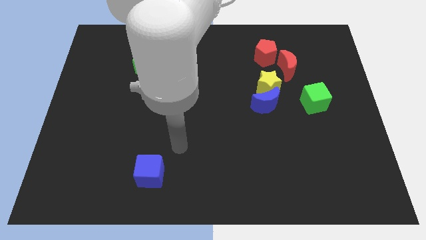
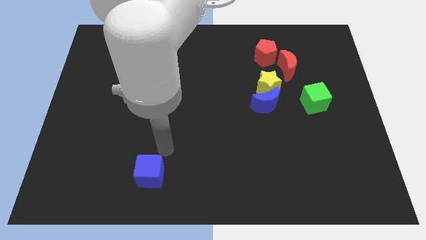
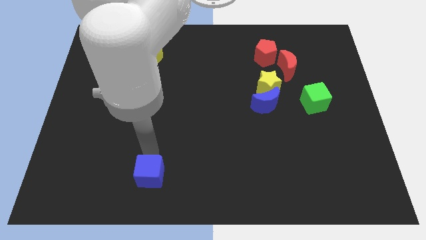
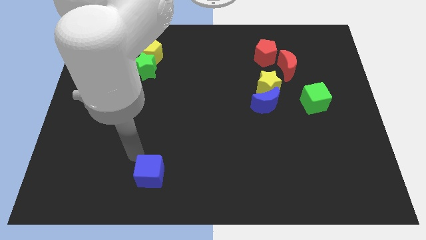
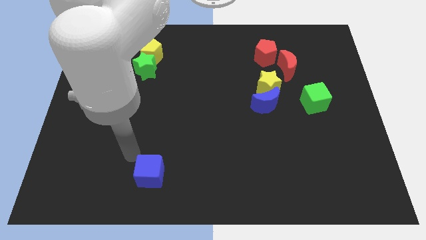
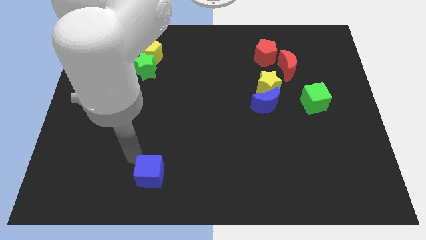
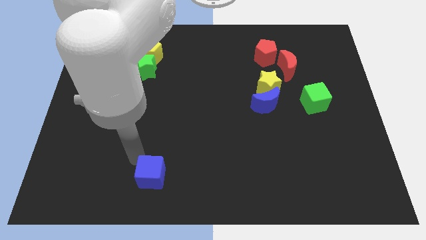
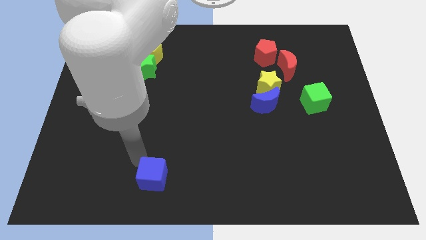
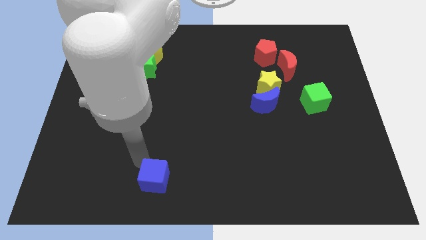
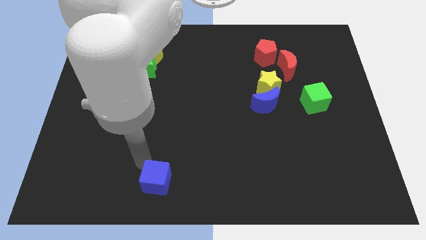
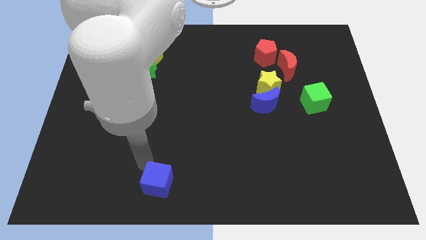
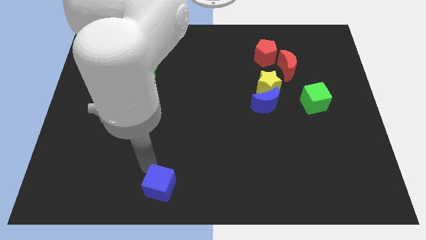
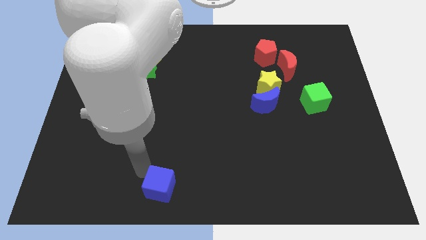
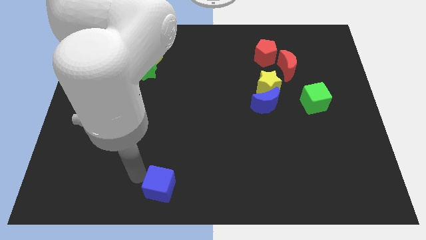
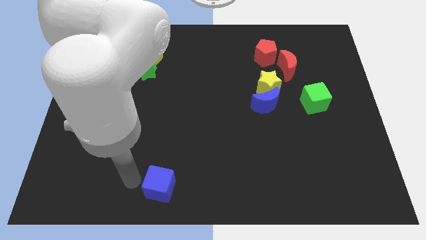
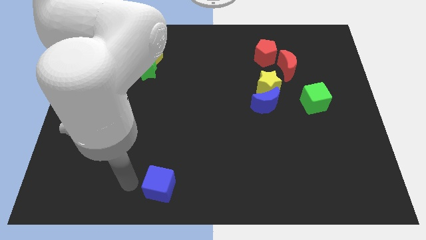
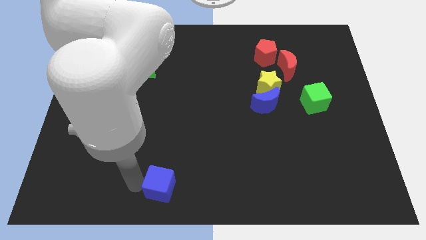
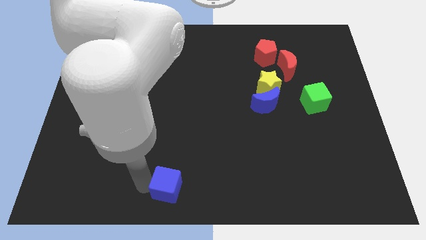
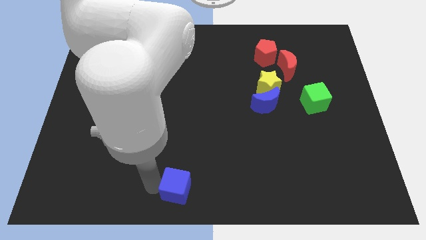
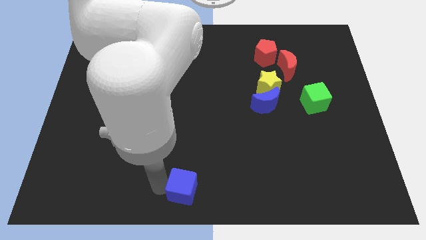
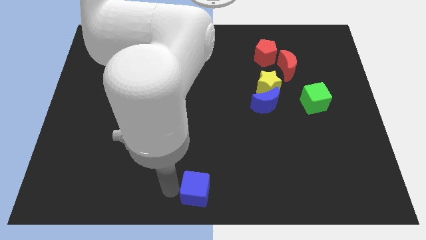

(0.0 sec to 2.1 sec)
slightly push the blue cube to the right

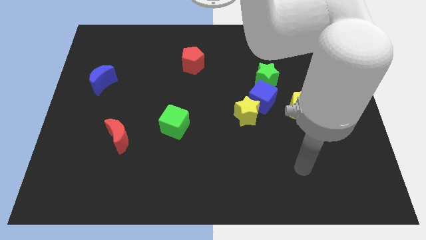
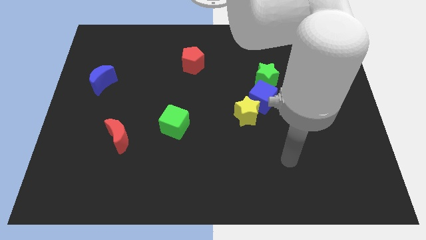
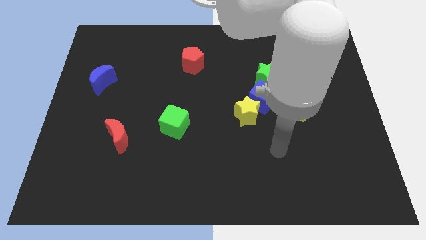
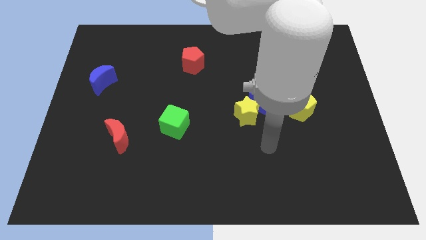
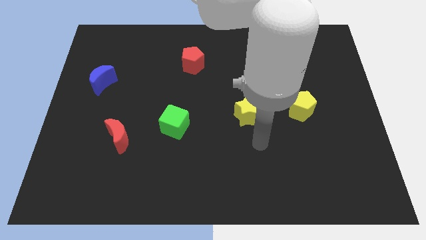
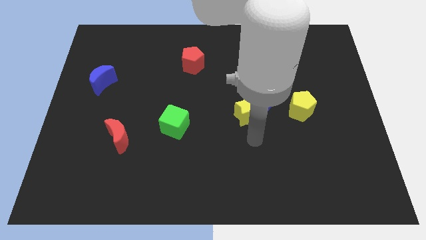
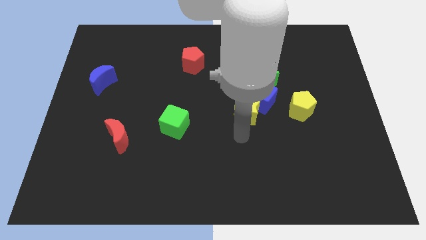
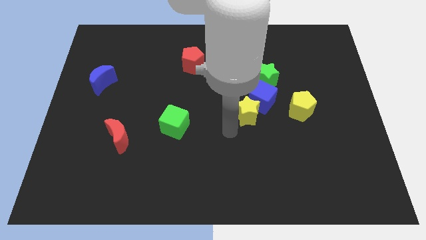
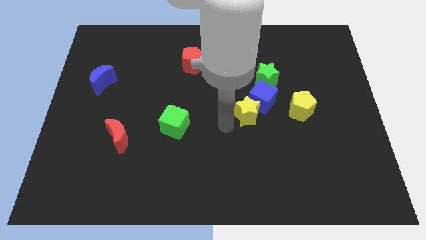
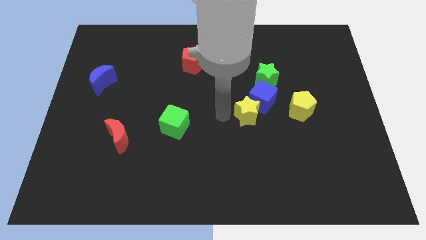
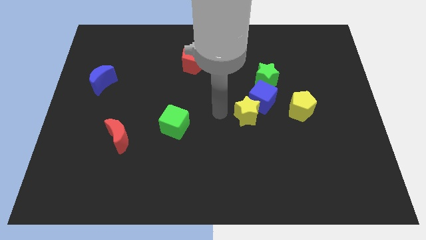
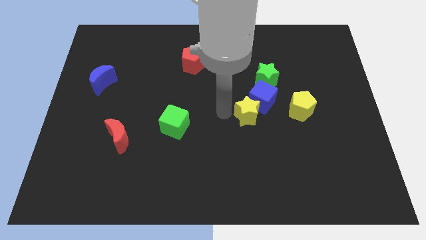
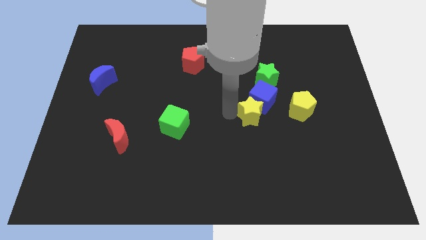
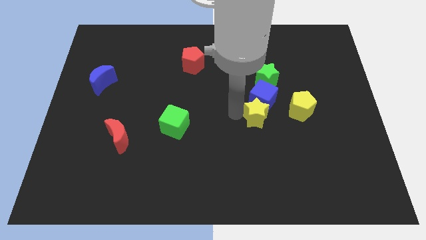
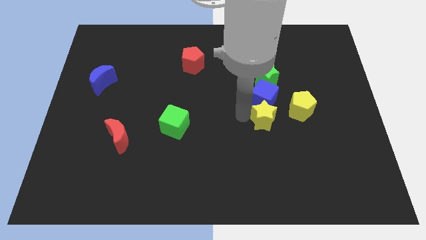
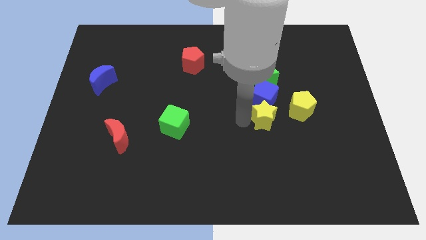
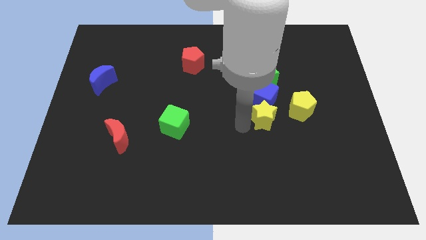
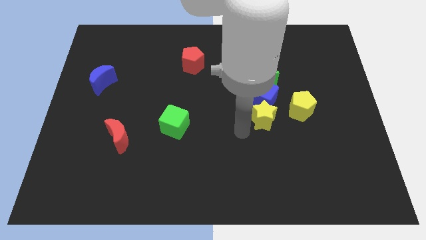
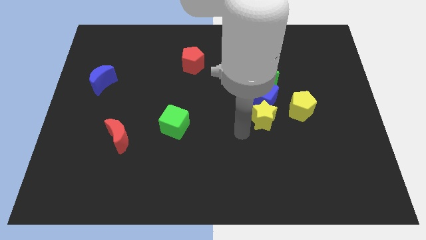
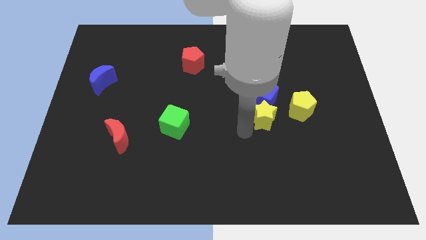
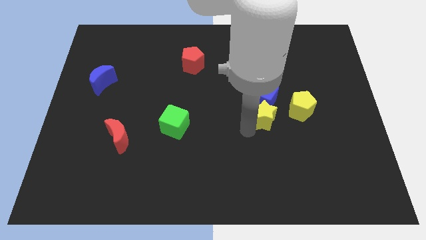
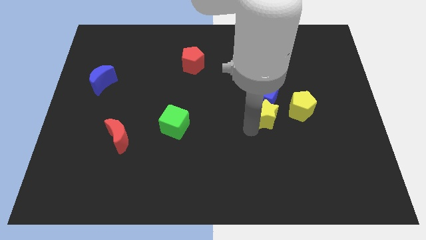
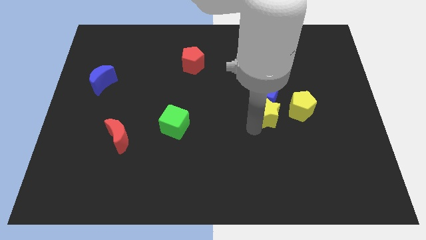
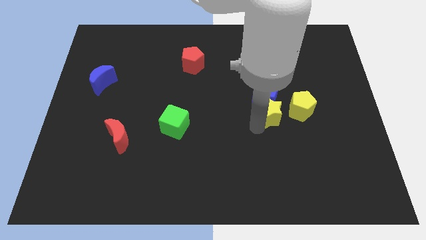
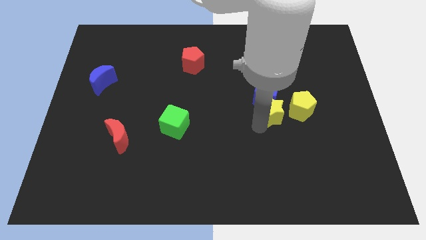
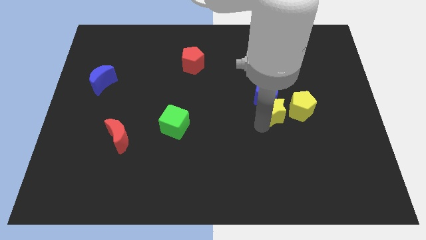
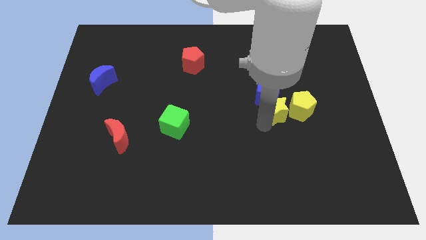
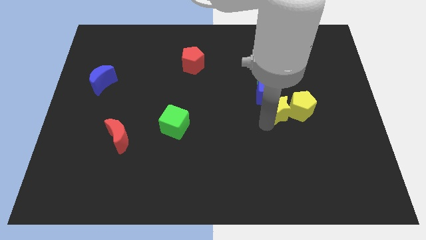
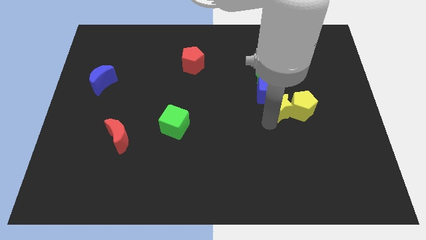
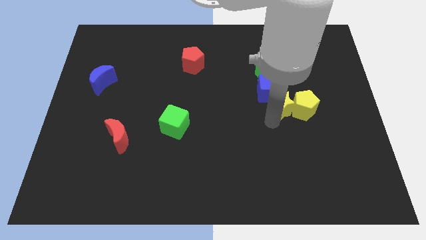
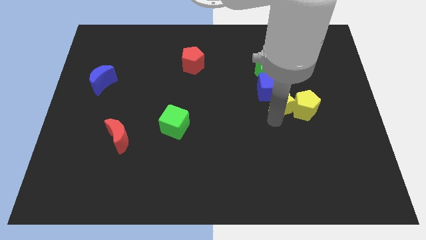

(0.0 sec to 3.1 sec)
slightly push the yellow star upwards and then to the right

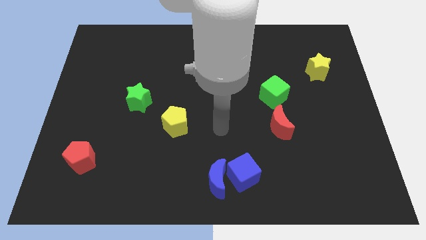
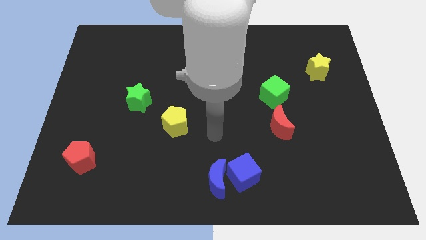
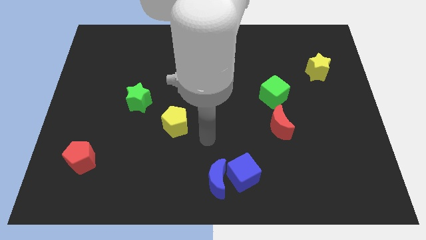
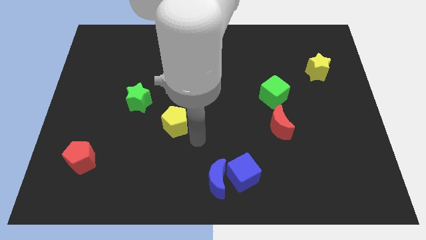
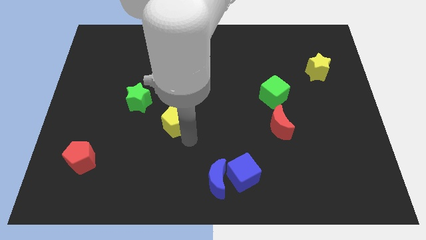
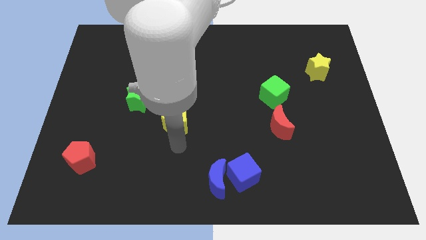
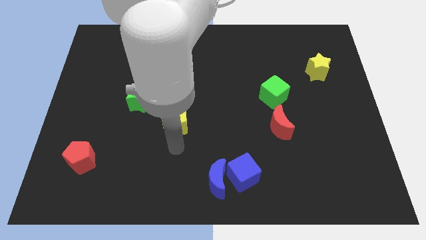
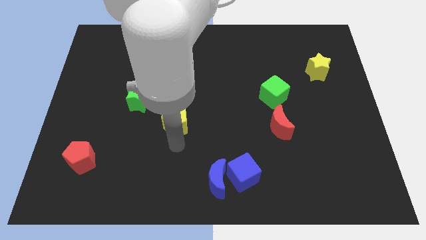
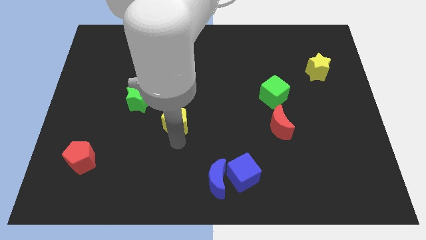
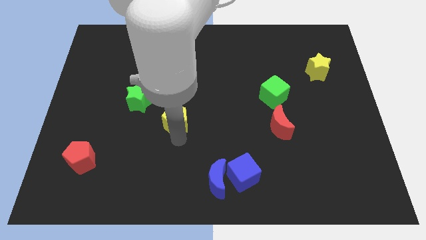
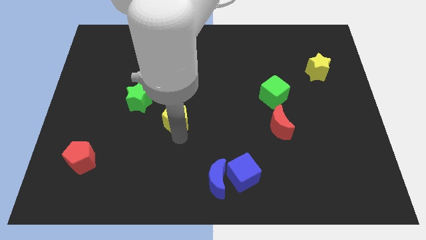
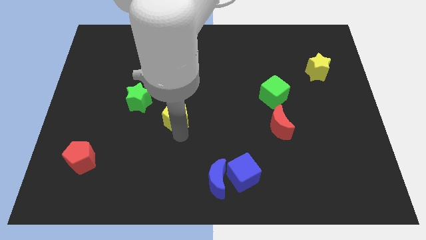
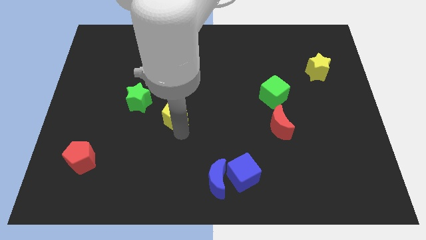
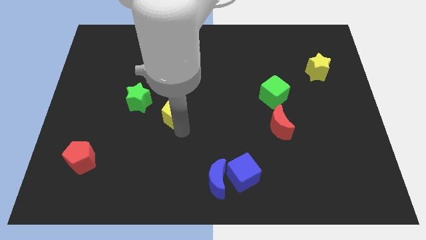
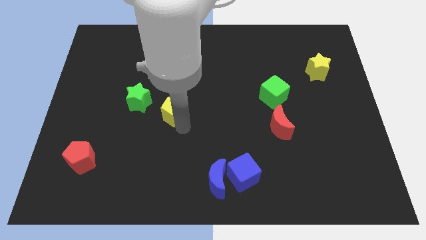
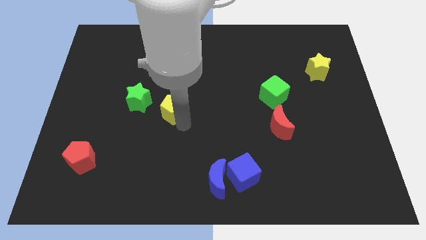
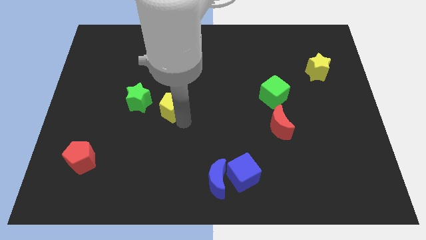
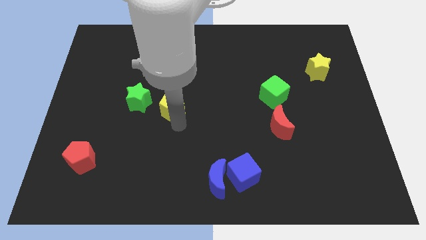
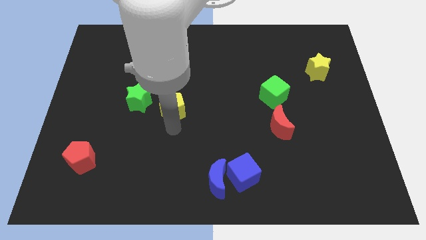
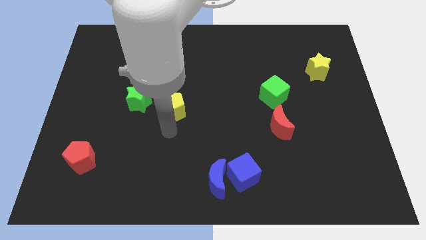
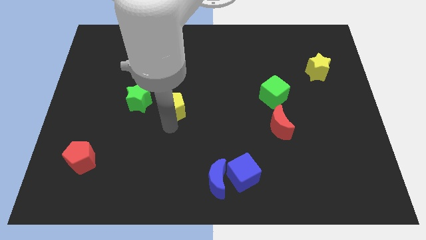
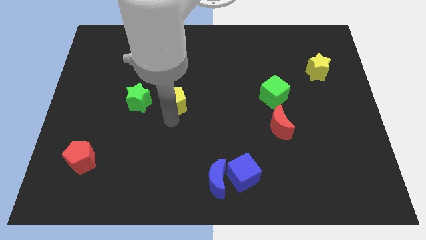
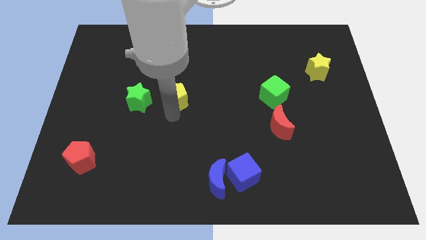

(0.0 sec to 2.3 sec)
push the yellow pentagon up a little

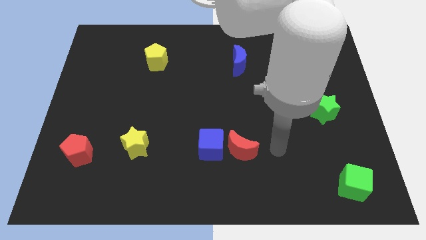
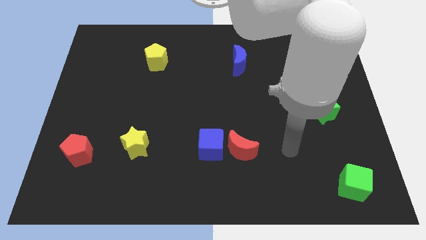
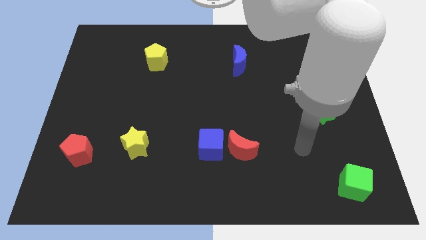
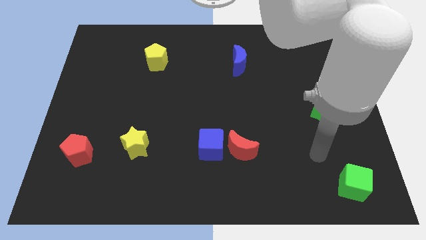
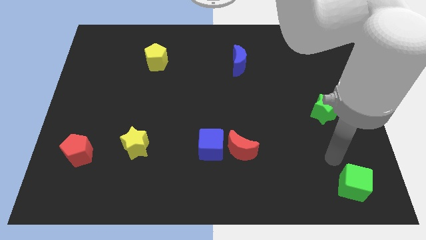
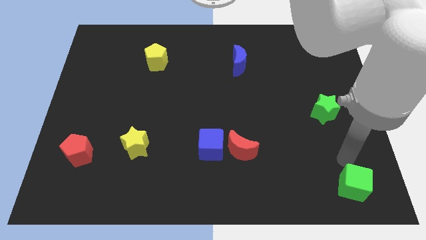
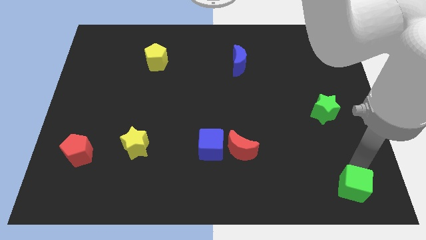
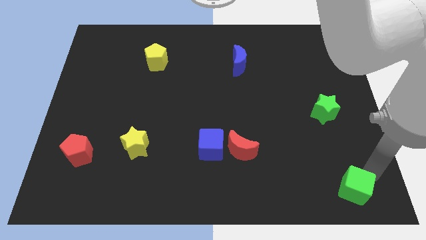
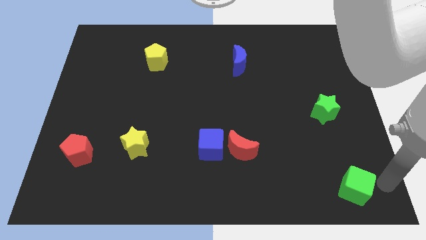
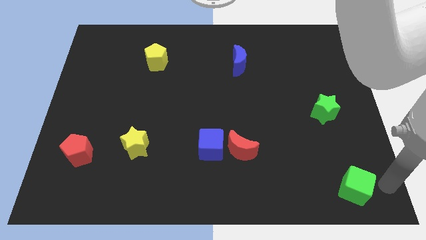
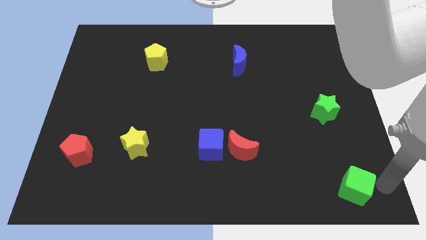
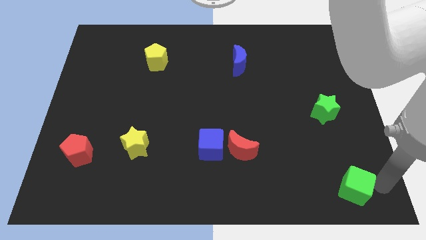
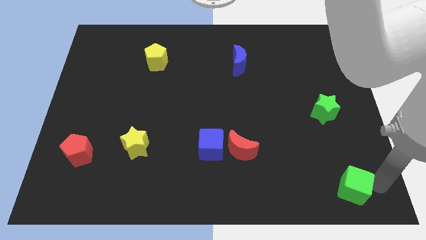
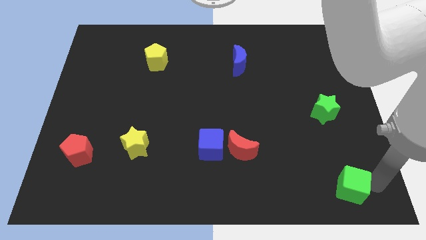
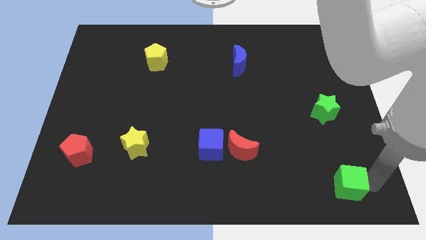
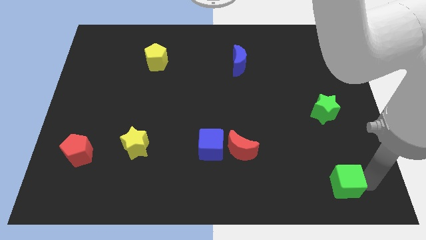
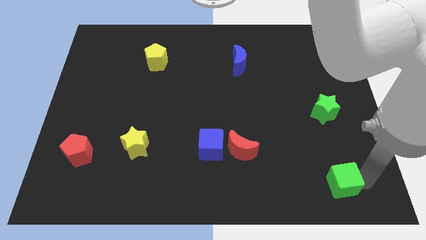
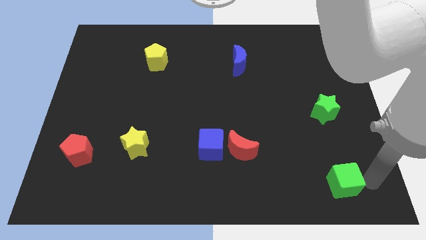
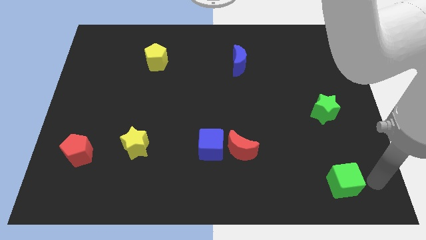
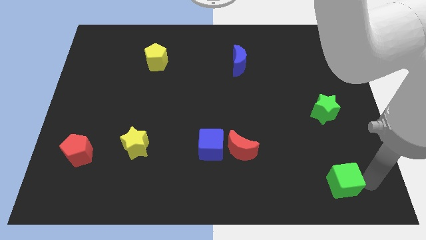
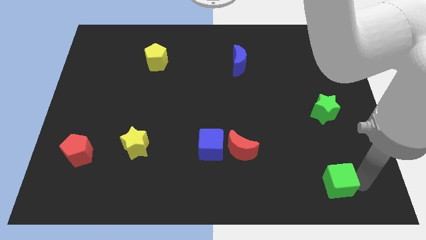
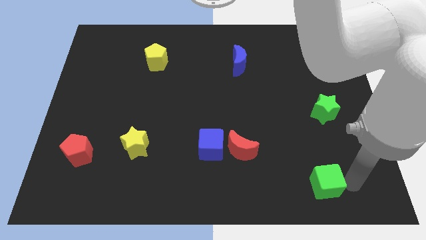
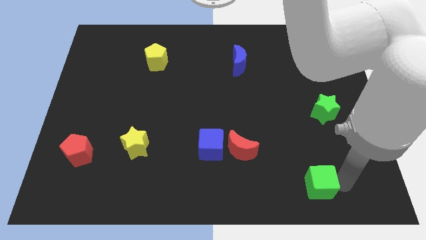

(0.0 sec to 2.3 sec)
move the green cube left slightly
